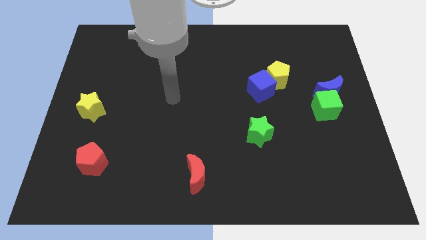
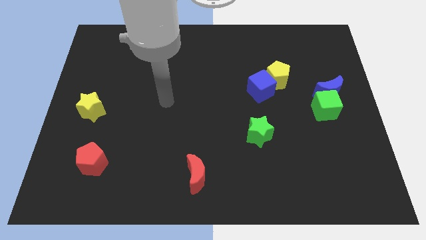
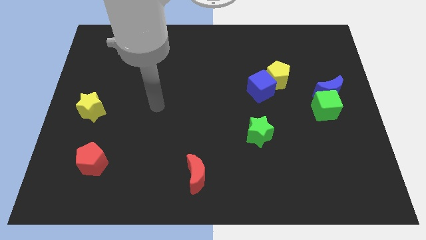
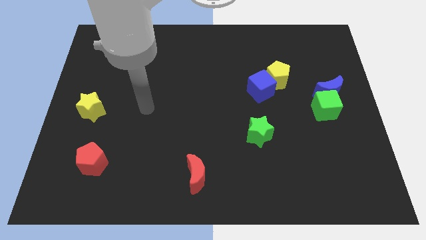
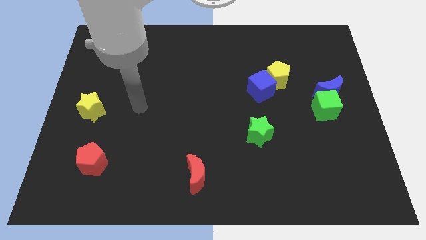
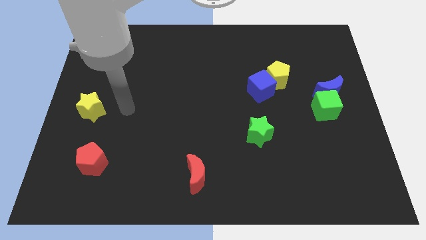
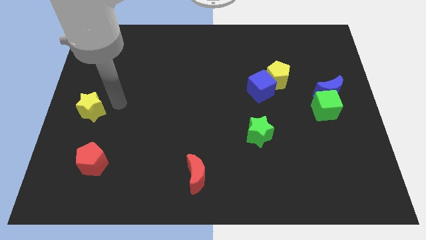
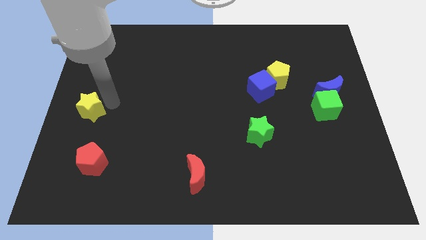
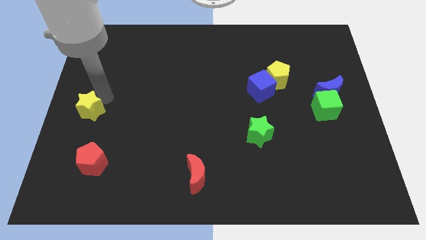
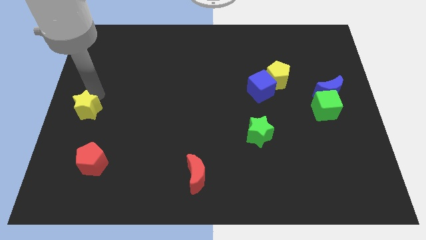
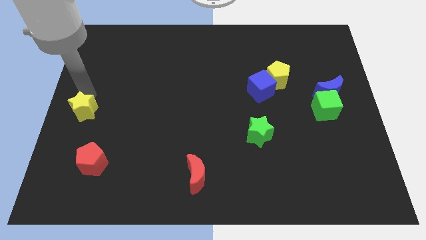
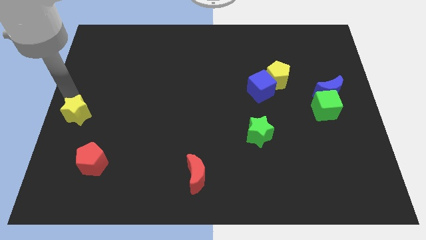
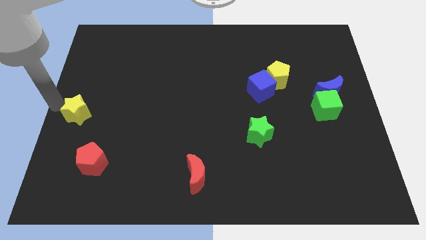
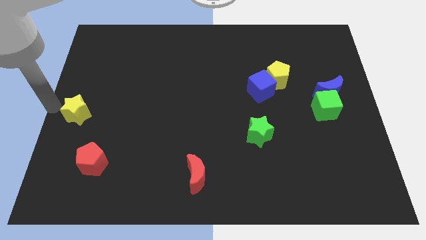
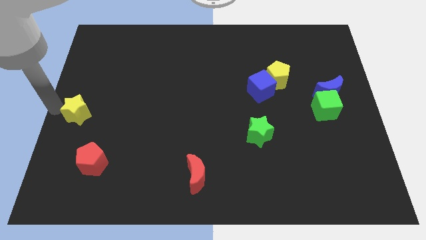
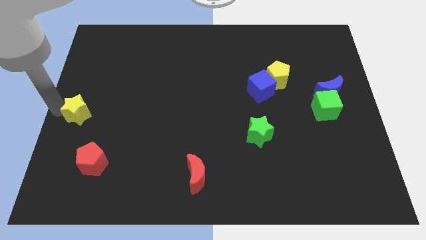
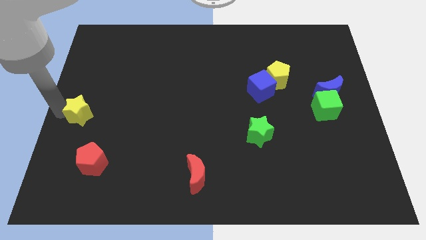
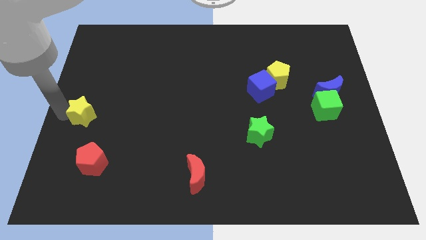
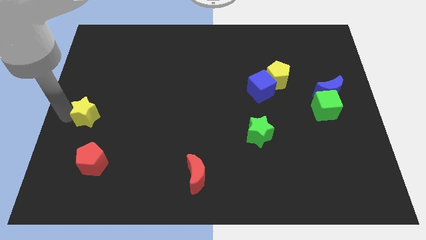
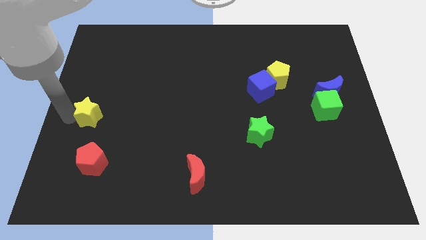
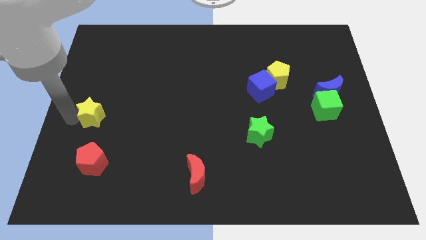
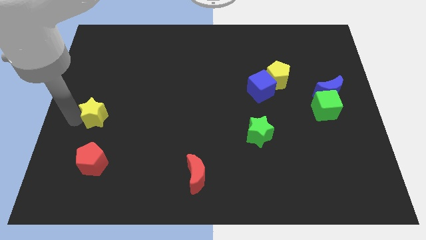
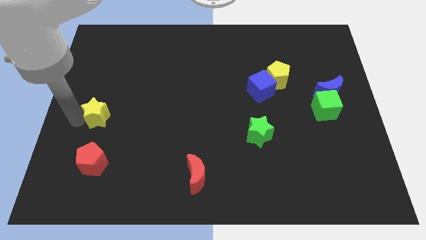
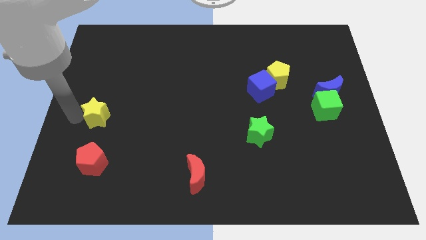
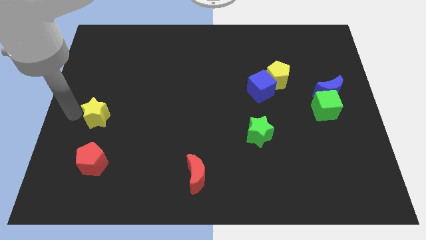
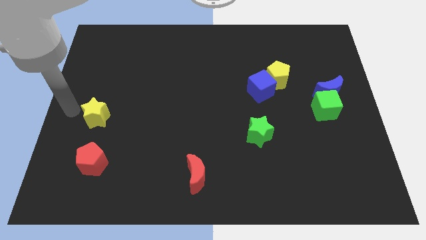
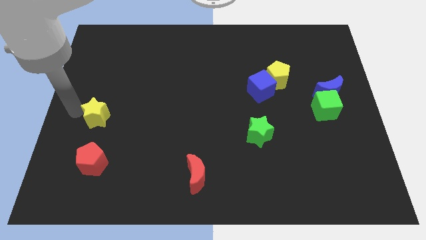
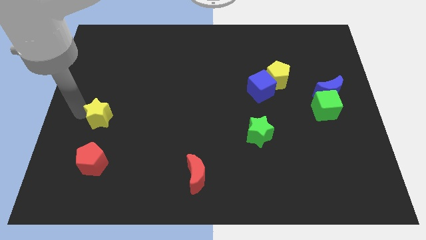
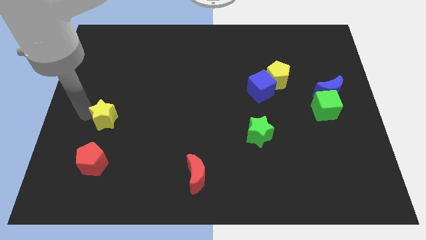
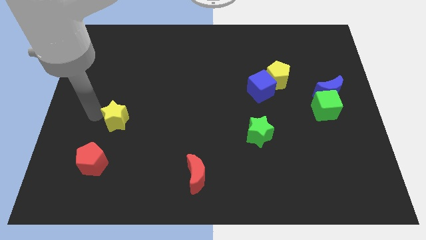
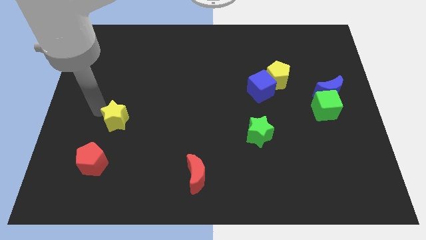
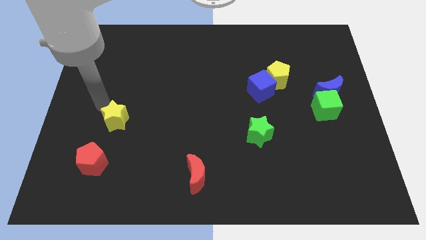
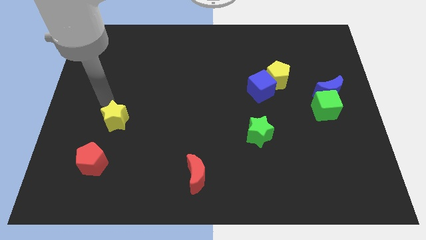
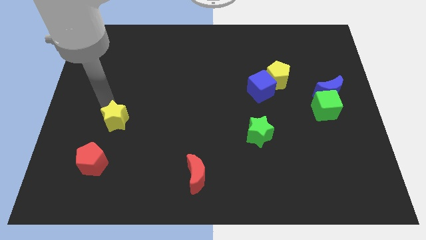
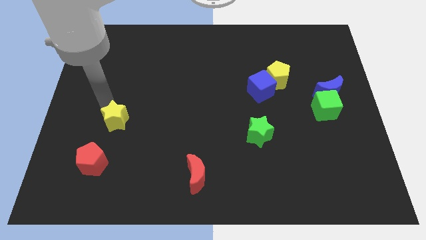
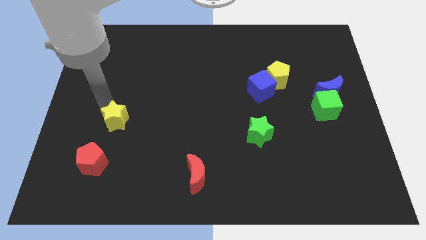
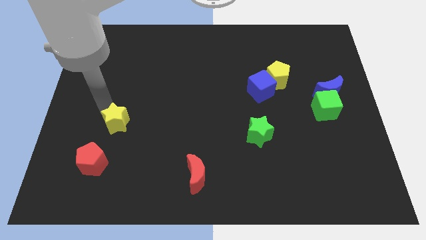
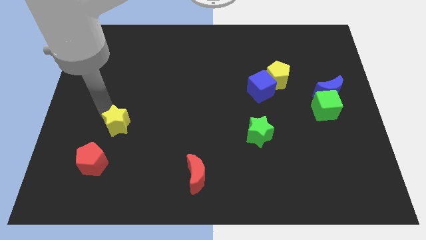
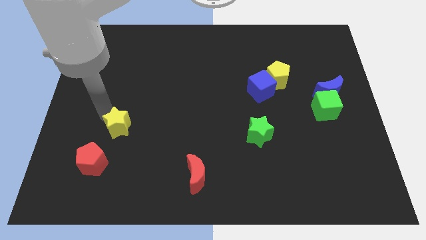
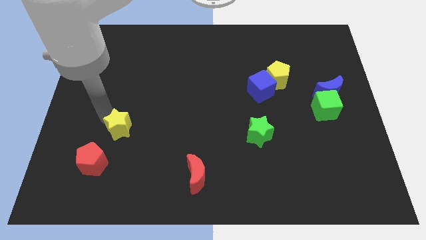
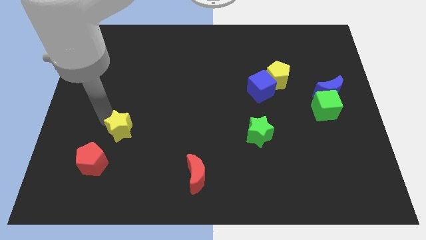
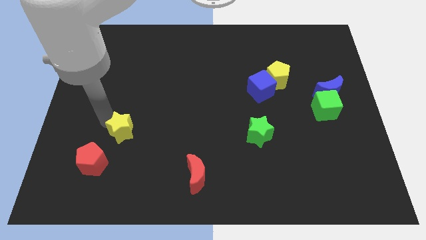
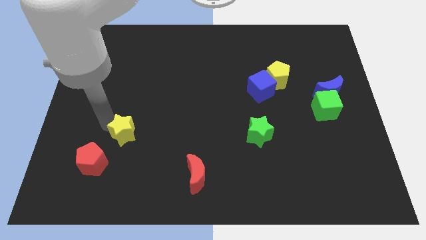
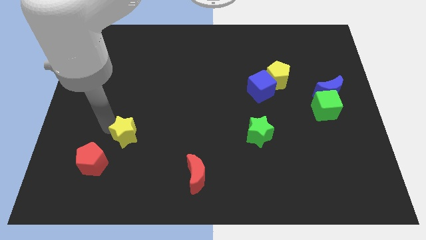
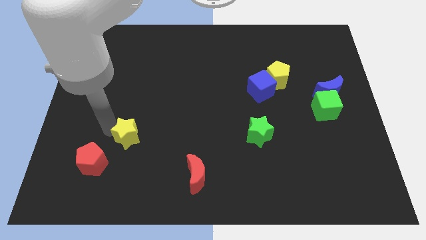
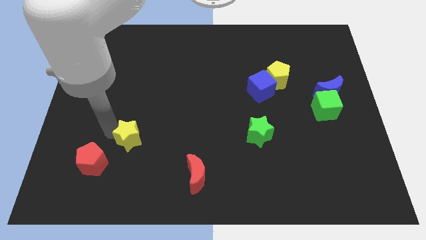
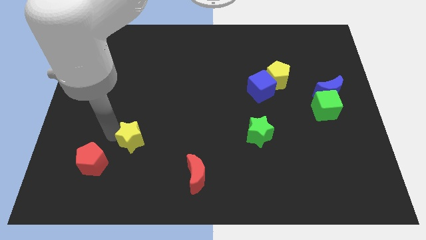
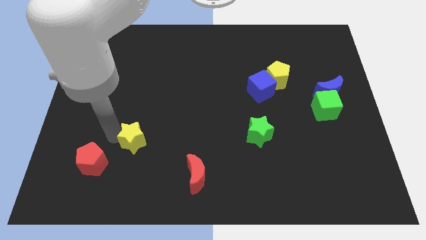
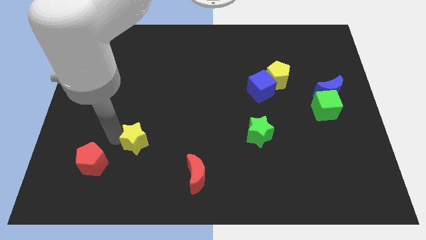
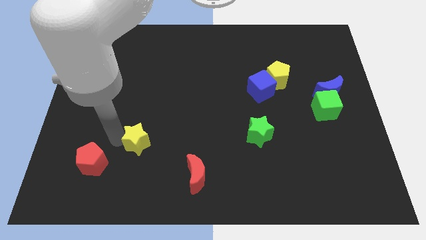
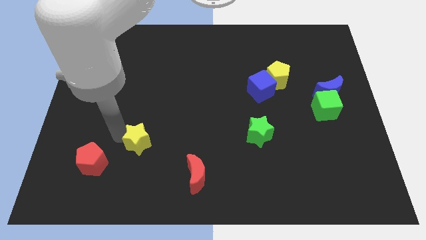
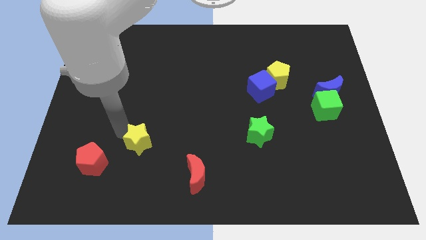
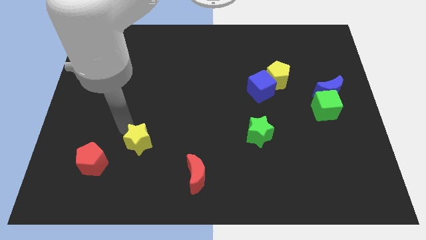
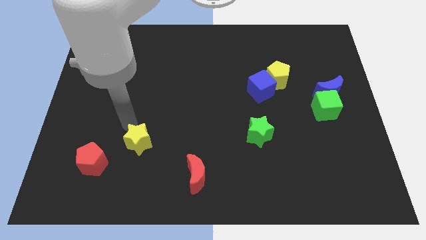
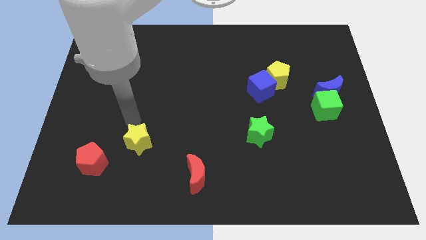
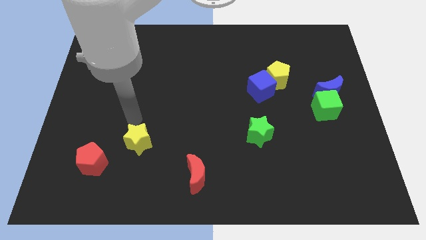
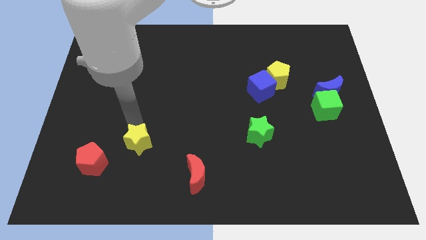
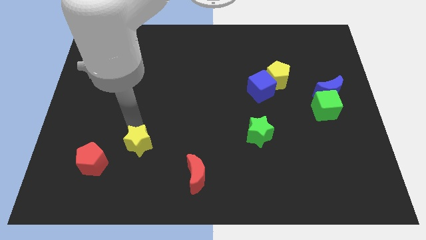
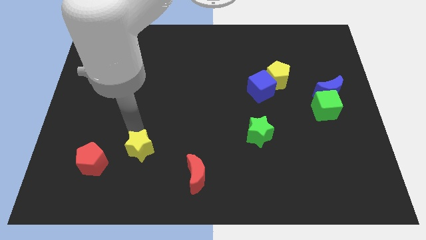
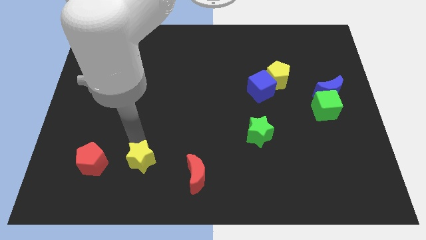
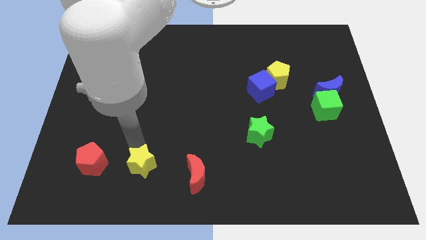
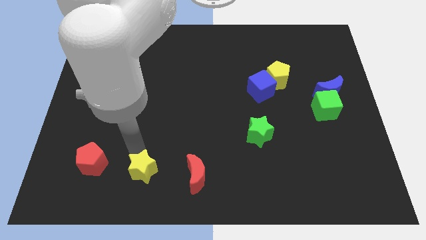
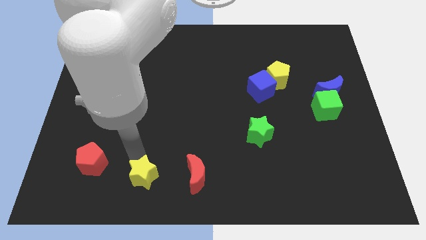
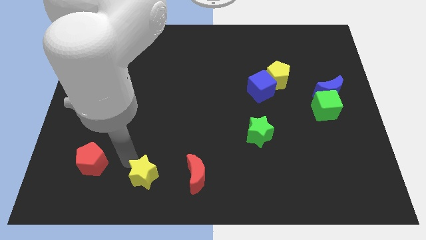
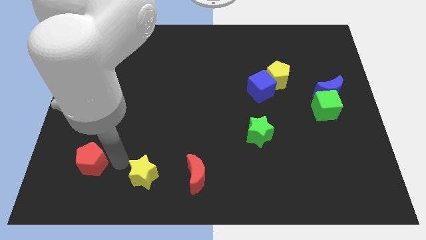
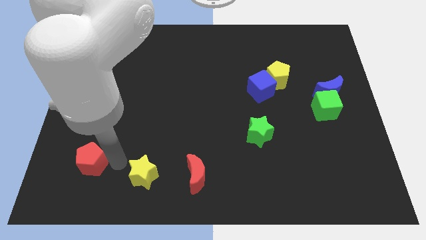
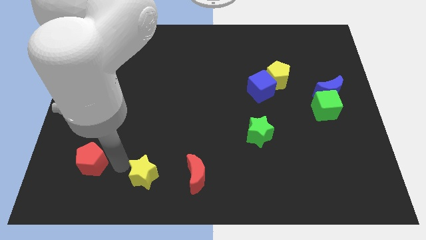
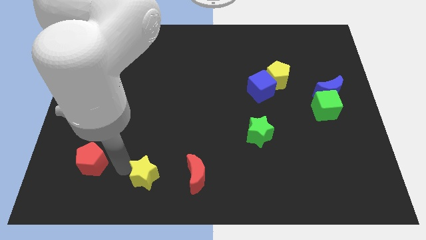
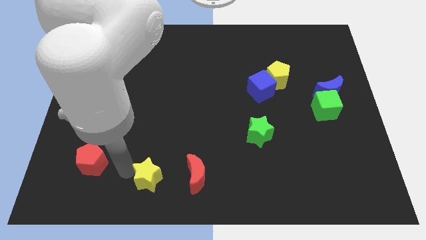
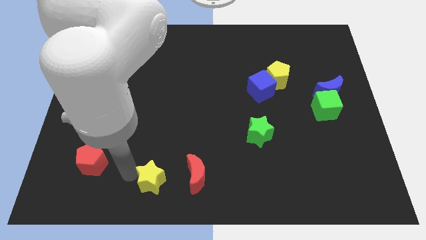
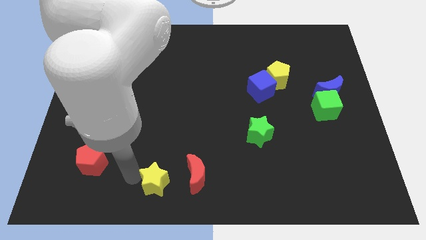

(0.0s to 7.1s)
push the yellow star to the bottom
